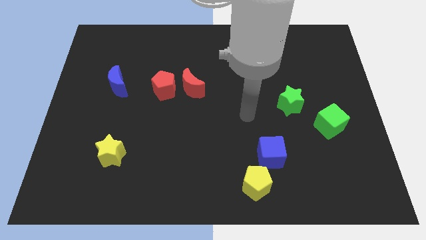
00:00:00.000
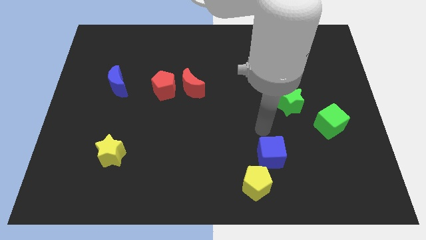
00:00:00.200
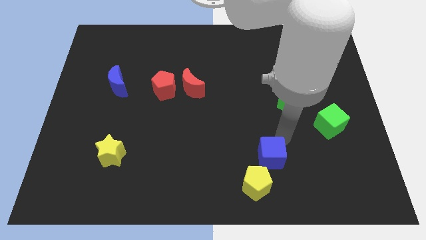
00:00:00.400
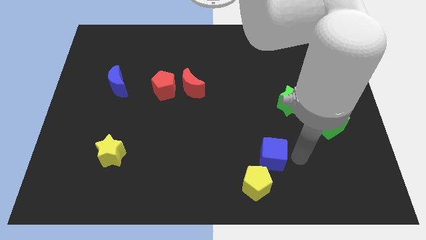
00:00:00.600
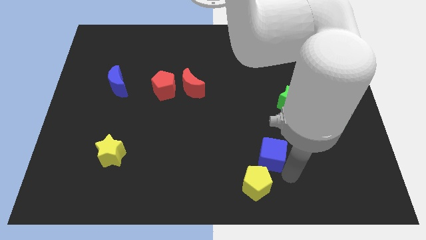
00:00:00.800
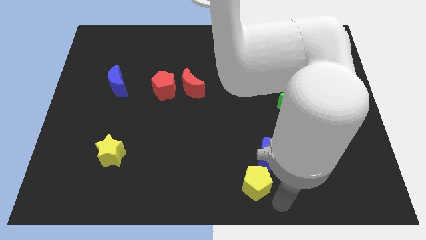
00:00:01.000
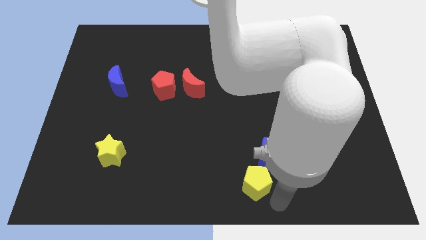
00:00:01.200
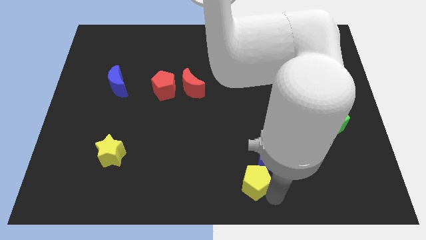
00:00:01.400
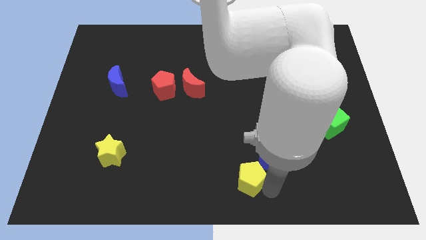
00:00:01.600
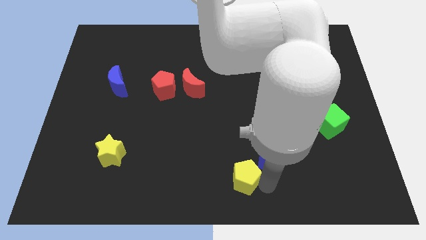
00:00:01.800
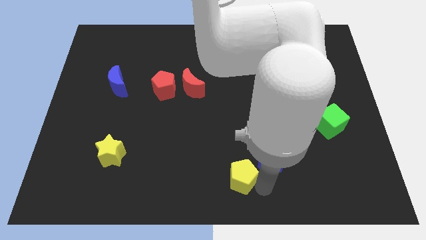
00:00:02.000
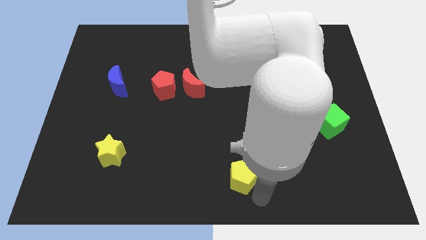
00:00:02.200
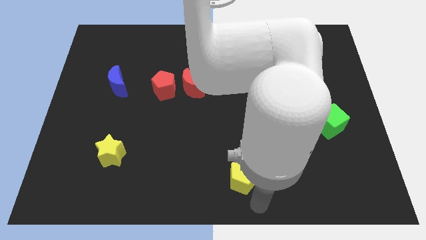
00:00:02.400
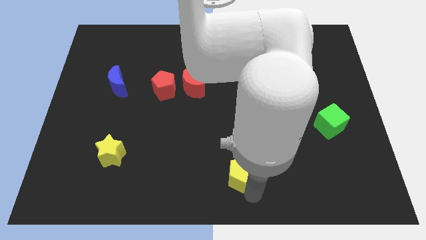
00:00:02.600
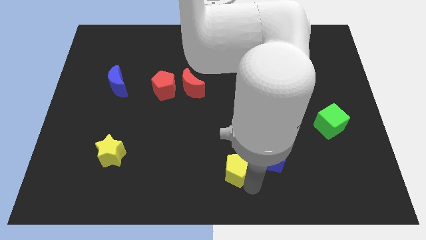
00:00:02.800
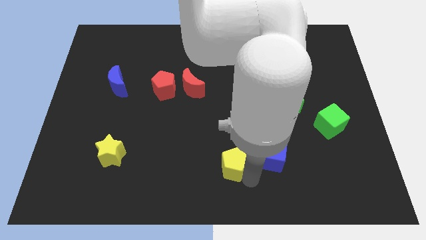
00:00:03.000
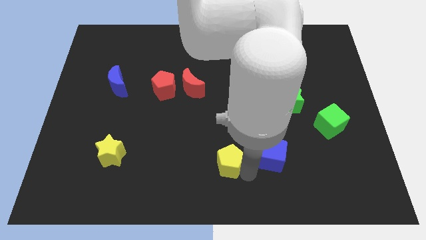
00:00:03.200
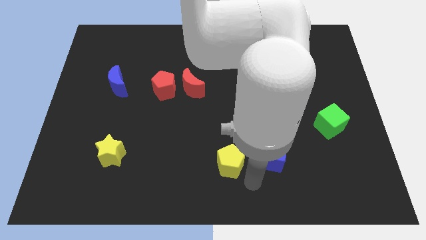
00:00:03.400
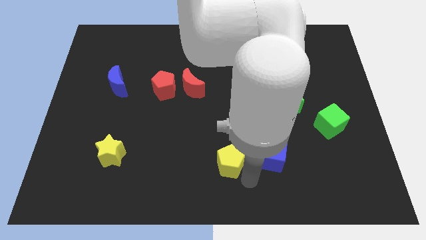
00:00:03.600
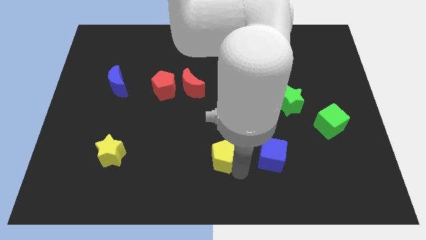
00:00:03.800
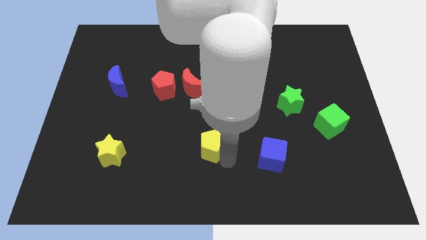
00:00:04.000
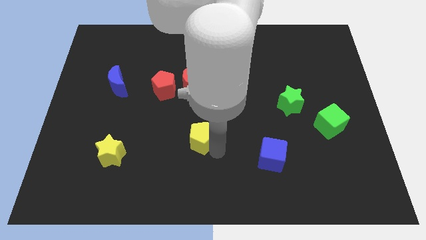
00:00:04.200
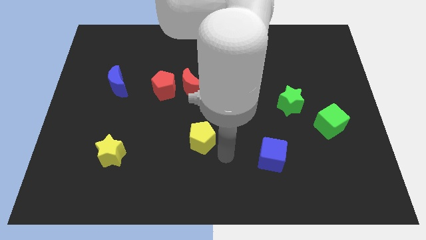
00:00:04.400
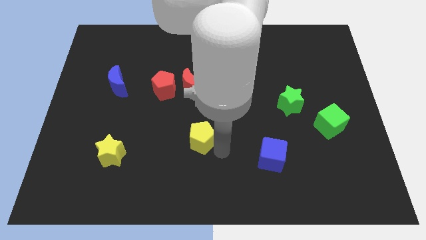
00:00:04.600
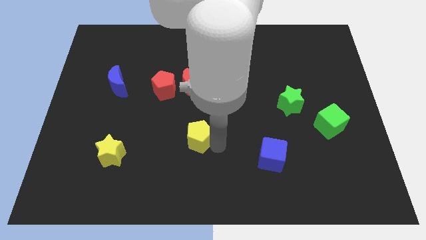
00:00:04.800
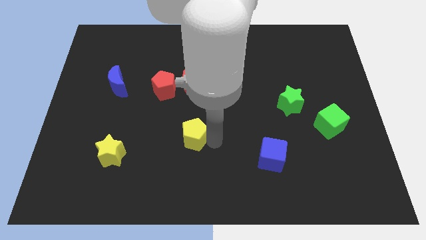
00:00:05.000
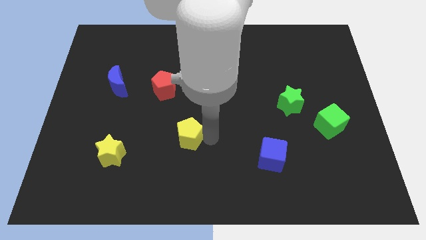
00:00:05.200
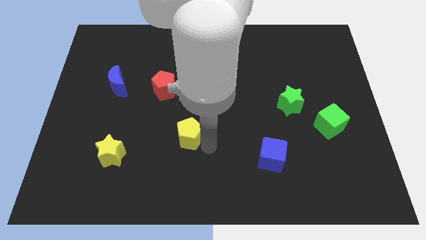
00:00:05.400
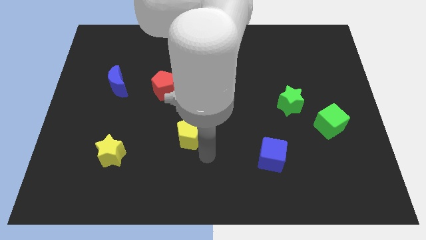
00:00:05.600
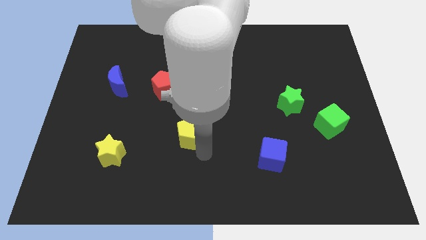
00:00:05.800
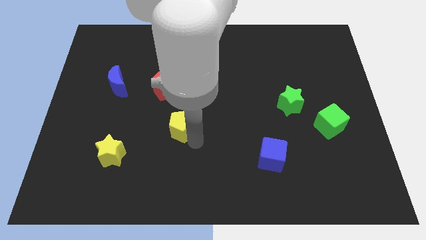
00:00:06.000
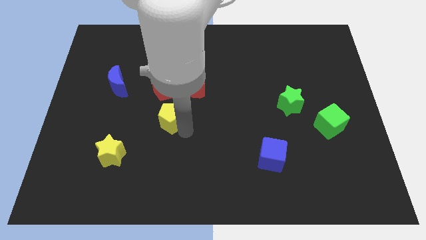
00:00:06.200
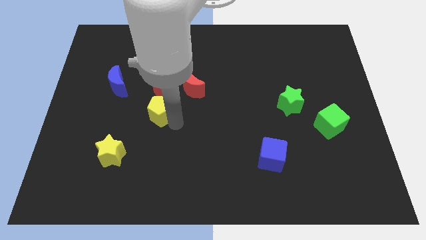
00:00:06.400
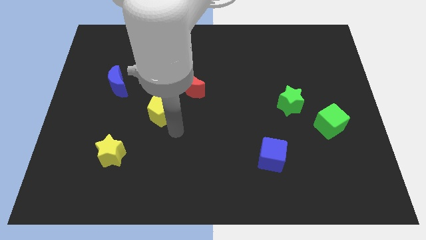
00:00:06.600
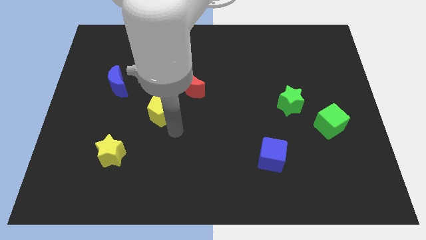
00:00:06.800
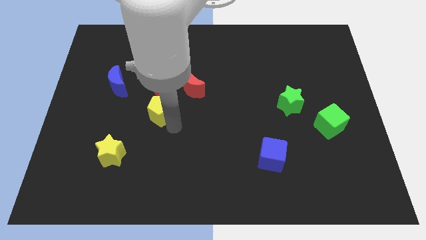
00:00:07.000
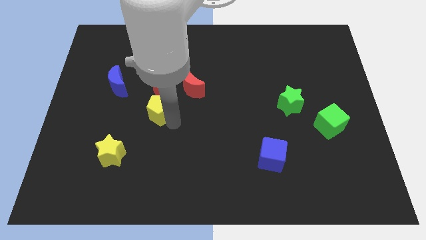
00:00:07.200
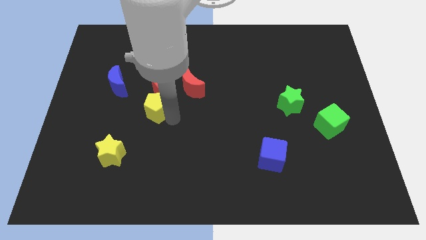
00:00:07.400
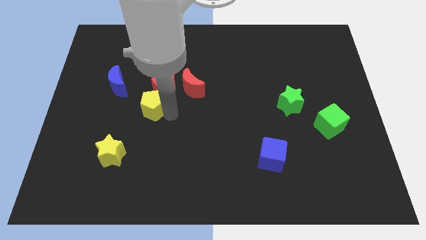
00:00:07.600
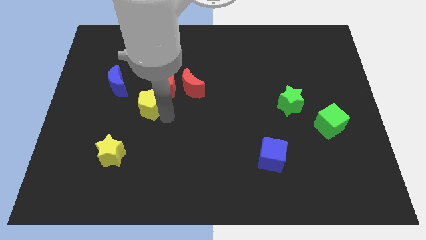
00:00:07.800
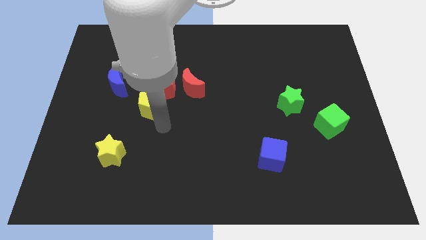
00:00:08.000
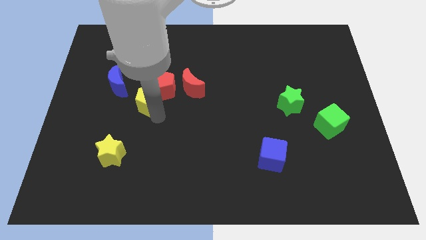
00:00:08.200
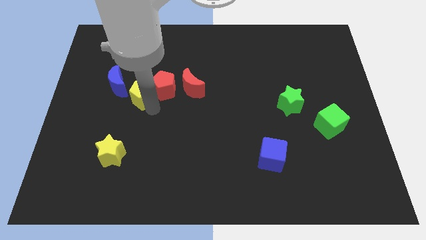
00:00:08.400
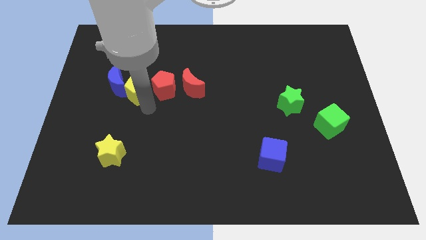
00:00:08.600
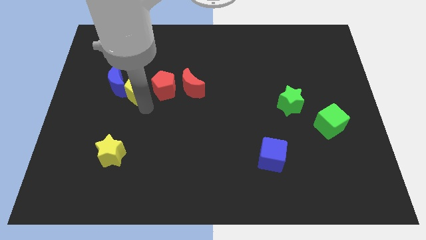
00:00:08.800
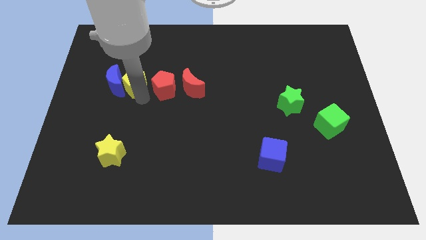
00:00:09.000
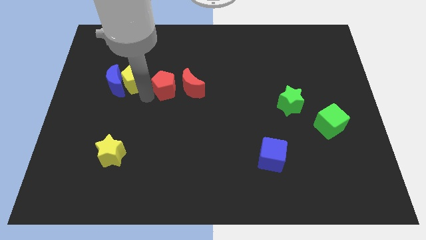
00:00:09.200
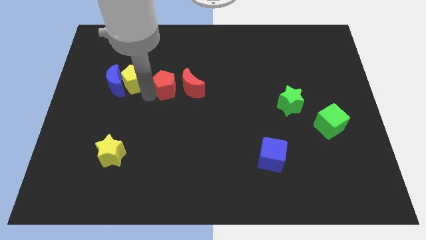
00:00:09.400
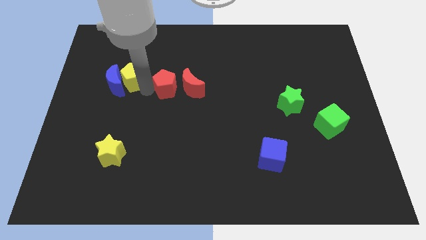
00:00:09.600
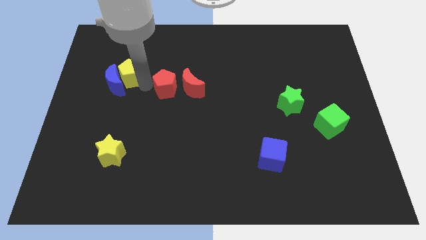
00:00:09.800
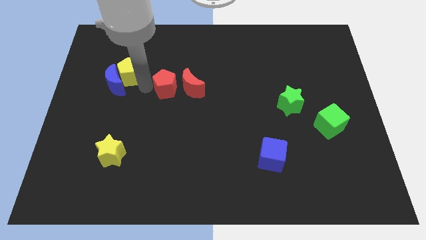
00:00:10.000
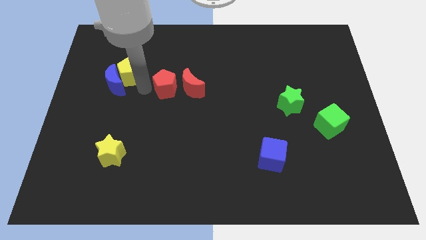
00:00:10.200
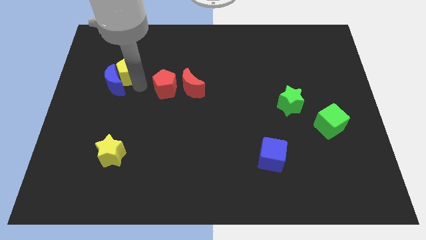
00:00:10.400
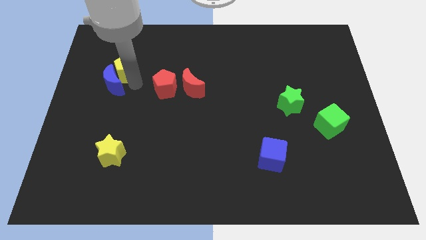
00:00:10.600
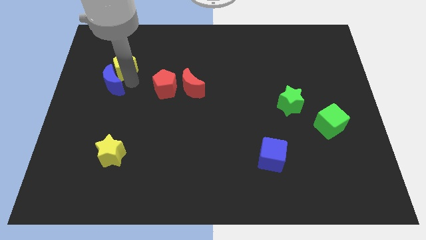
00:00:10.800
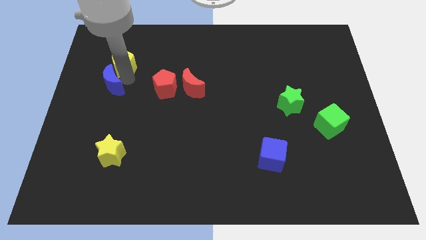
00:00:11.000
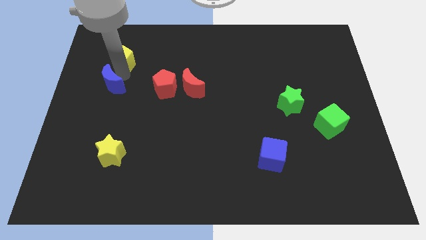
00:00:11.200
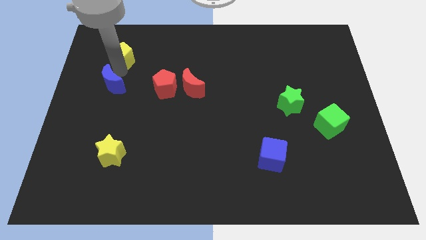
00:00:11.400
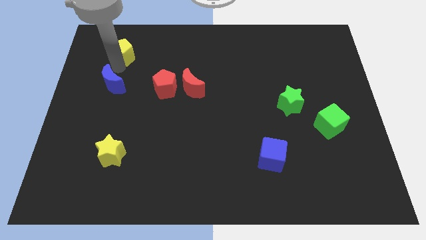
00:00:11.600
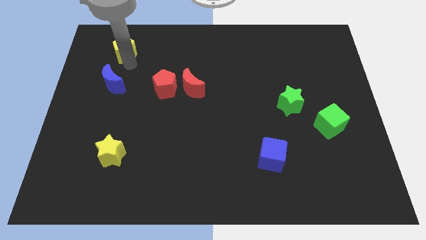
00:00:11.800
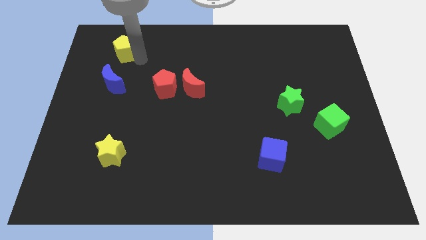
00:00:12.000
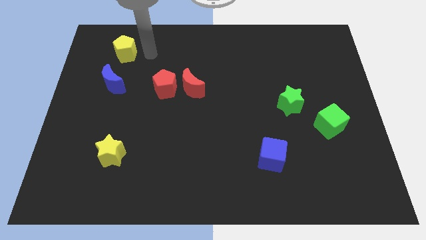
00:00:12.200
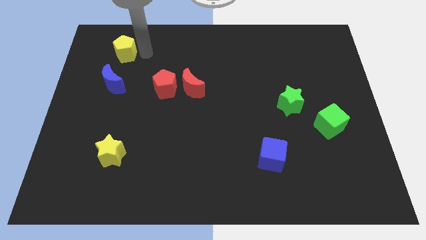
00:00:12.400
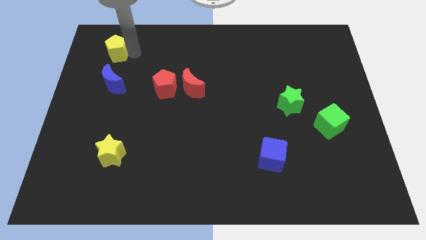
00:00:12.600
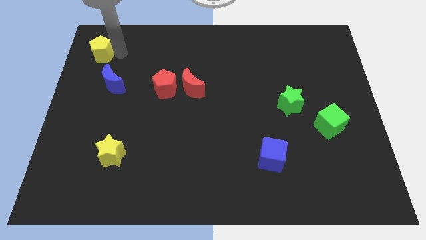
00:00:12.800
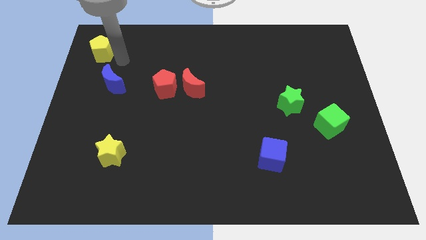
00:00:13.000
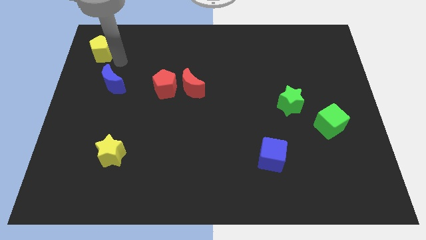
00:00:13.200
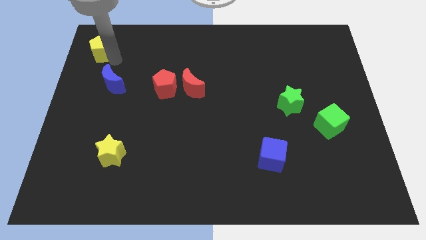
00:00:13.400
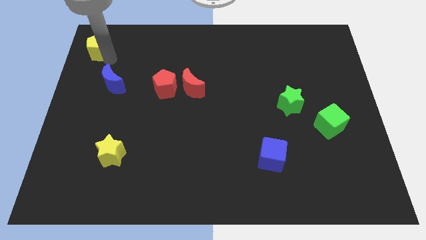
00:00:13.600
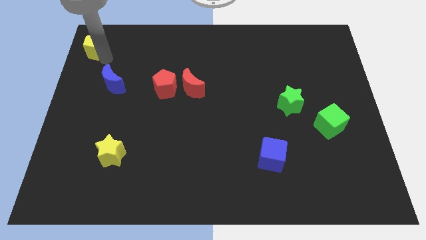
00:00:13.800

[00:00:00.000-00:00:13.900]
slide the yellow pentagon to the top left of the board
